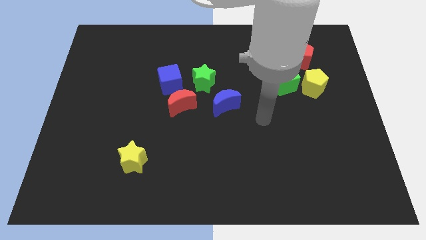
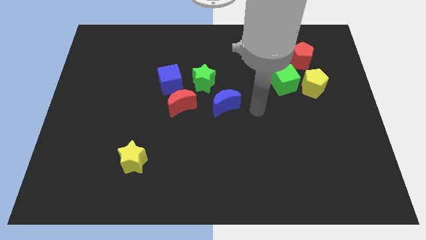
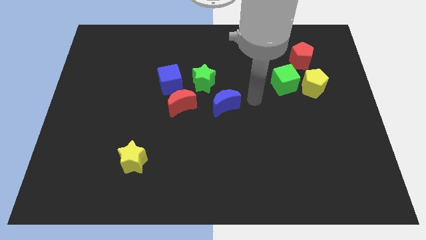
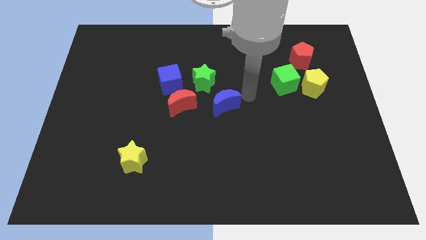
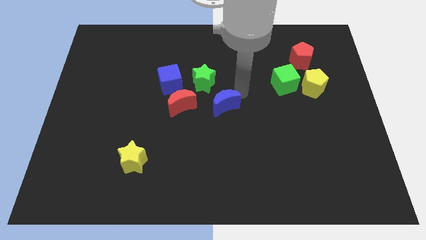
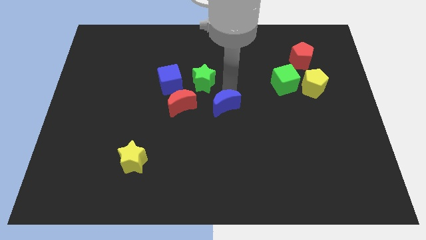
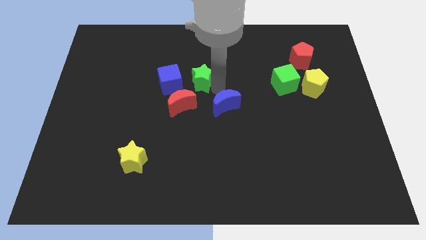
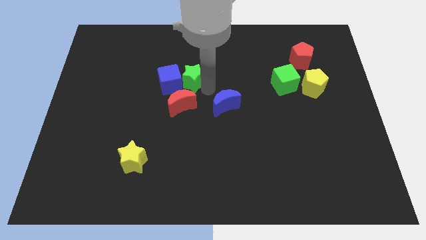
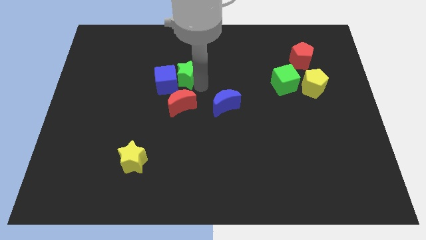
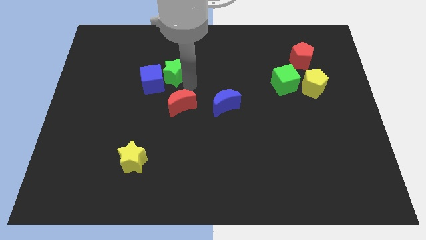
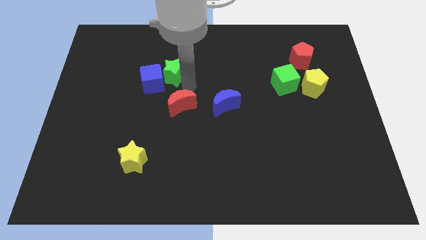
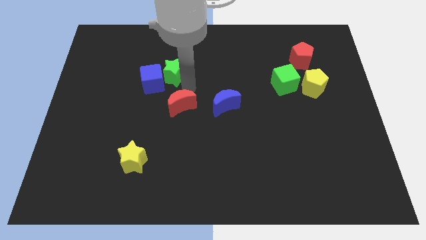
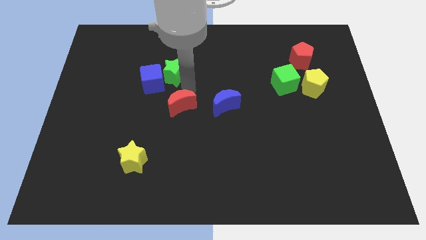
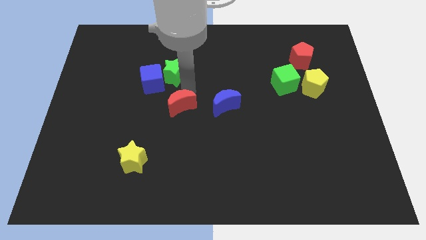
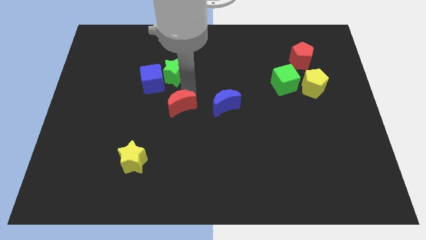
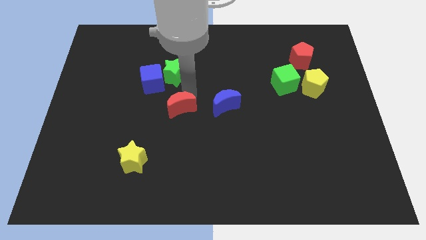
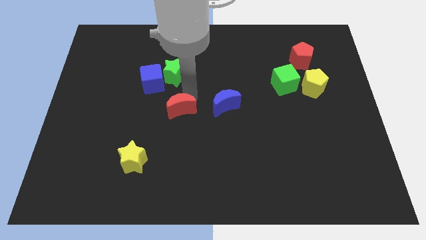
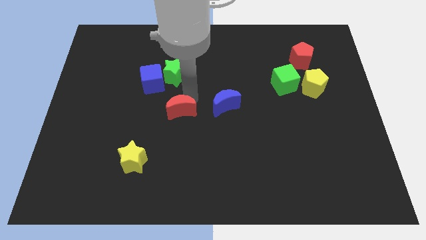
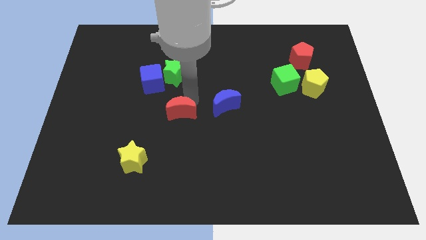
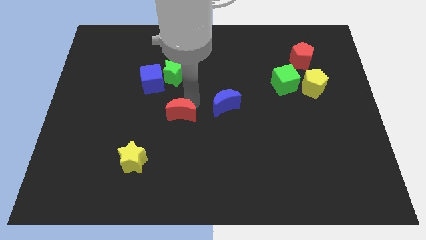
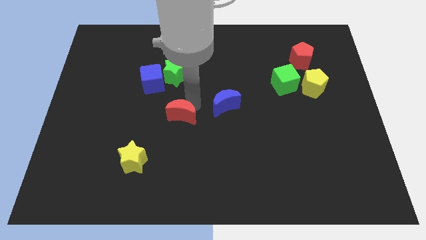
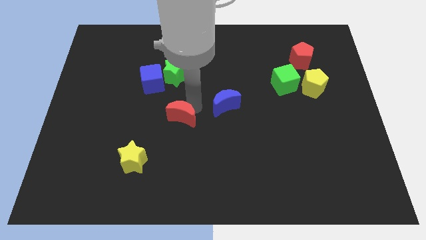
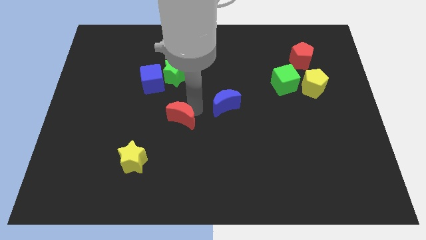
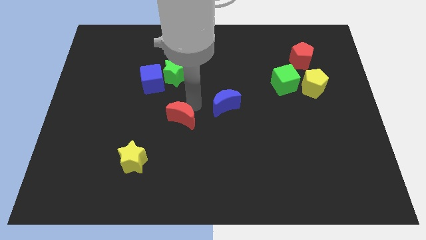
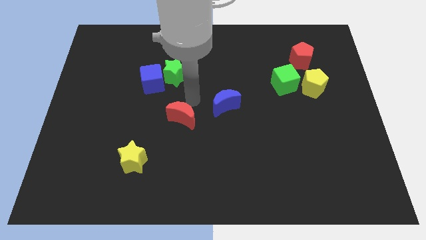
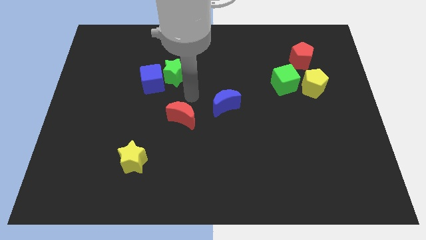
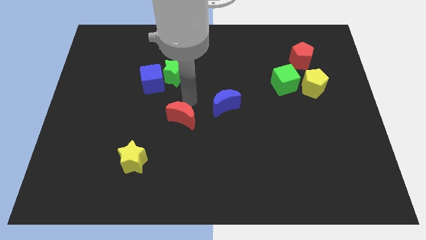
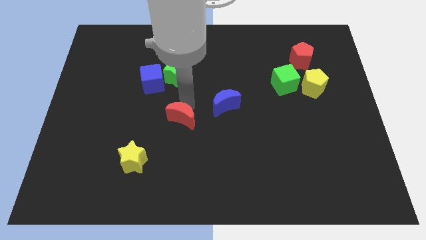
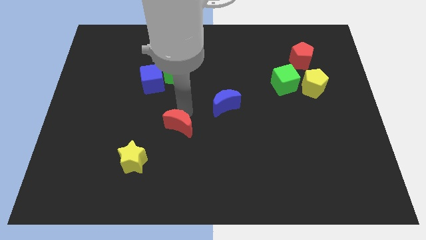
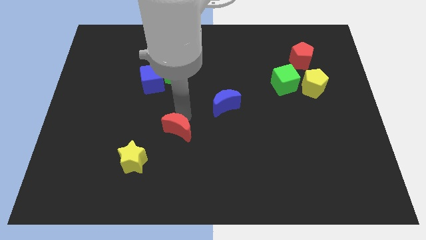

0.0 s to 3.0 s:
push the red moon a little bit downwards

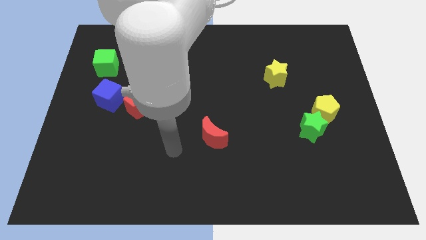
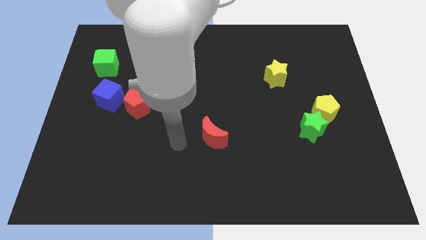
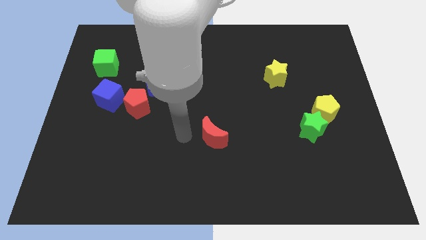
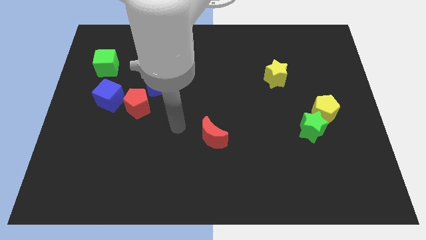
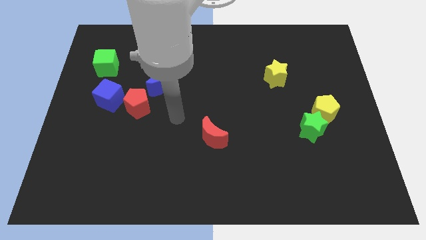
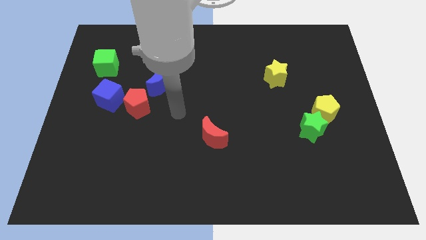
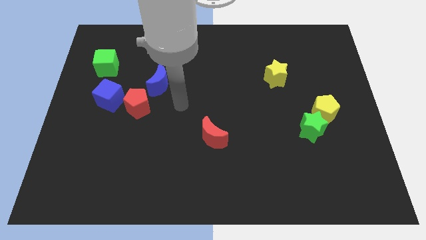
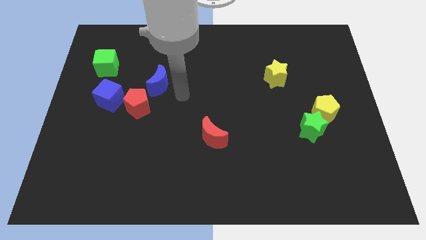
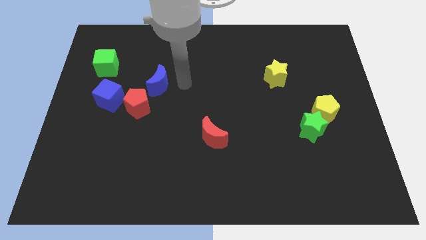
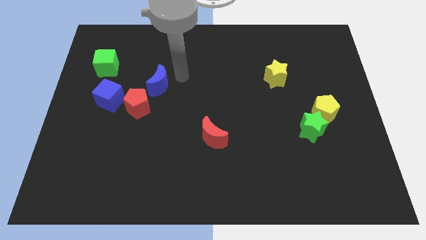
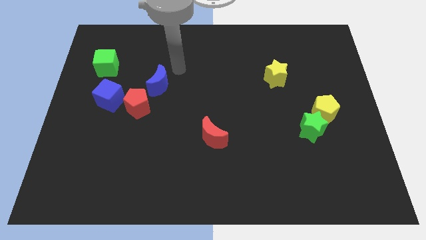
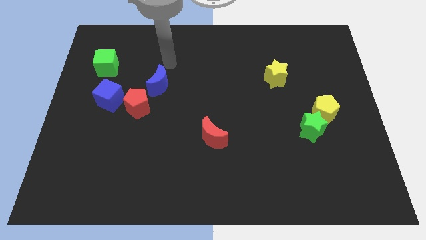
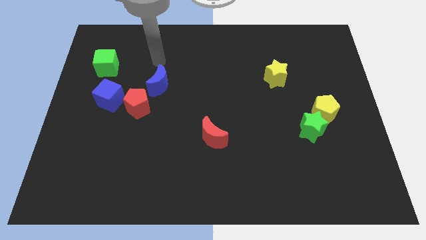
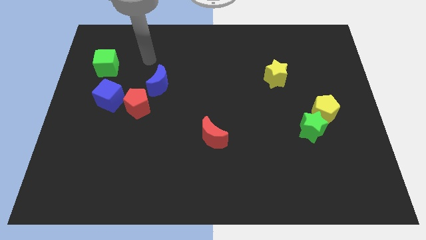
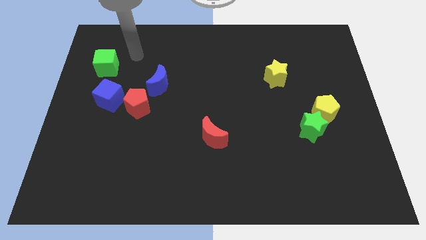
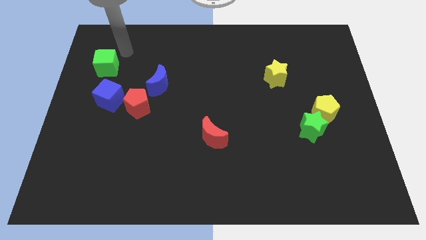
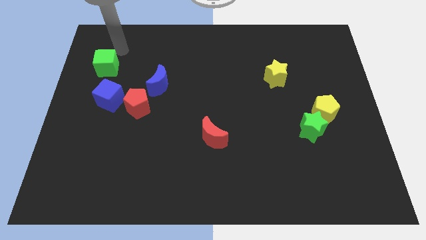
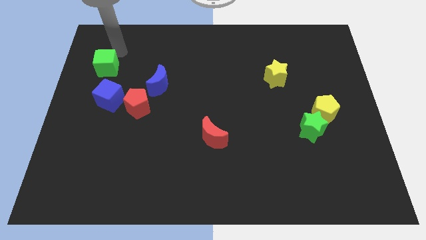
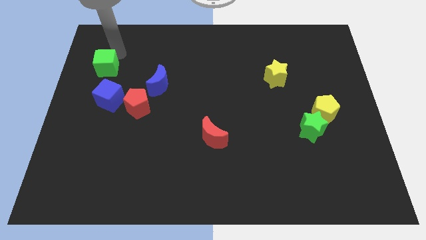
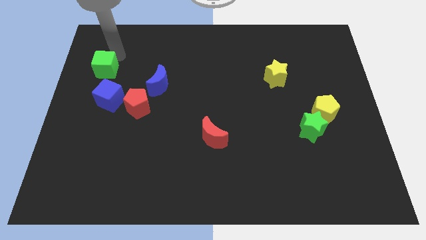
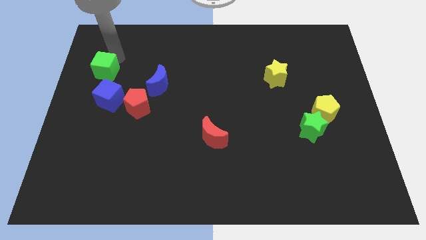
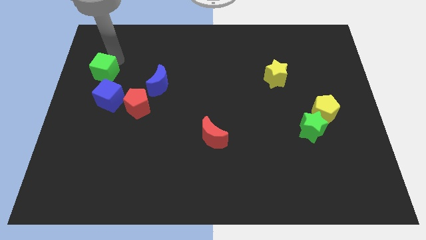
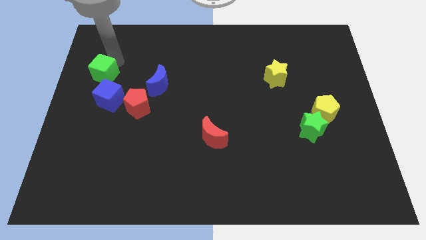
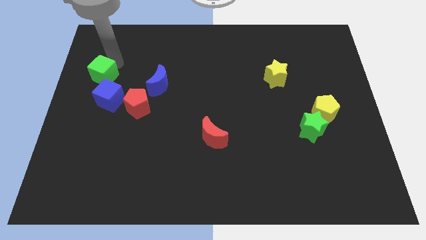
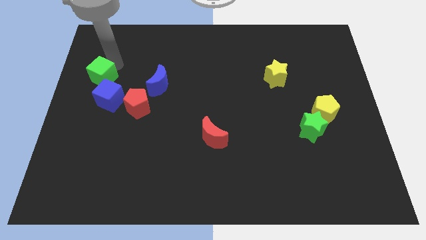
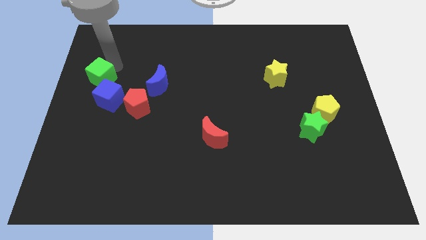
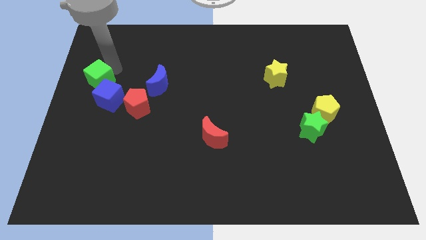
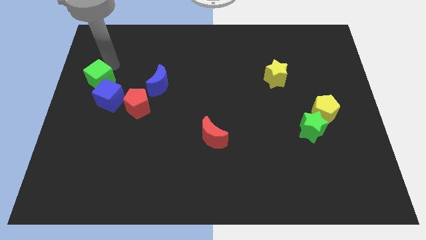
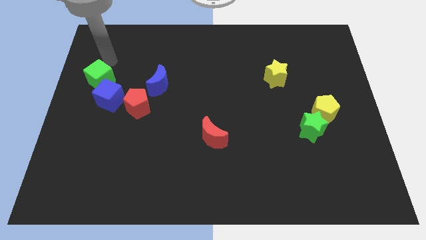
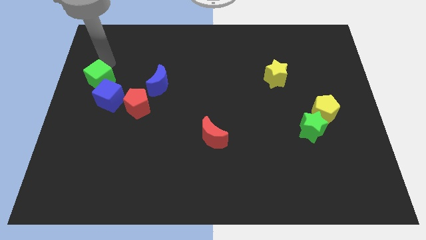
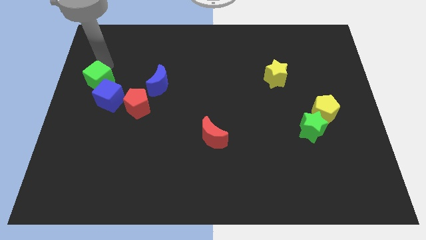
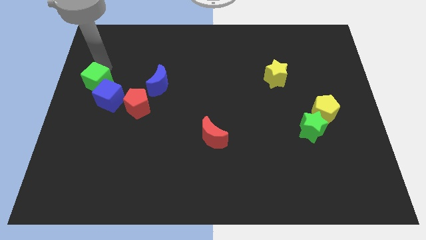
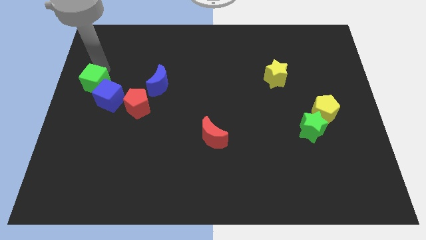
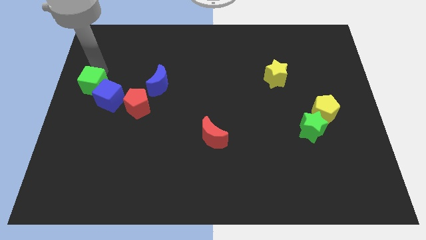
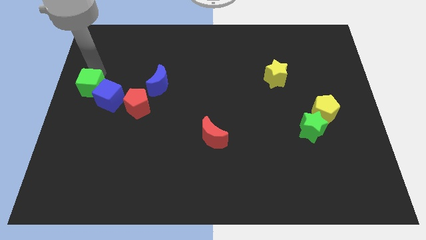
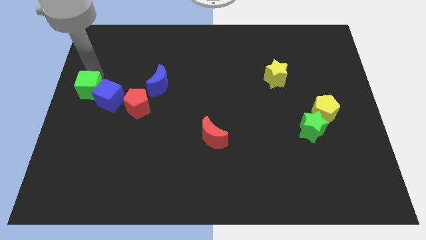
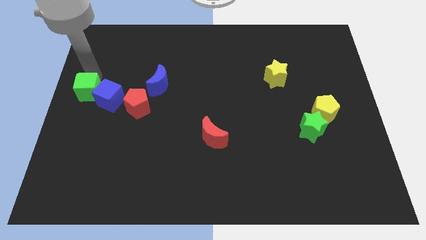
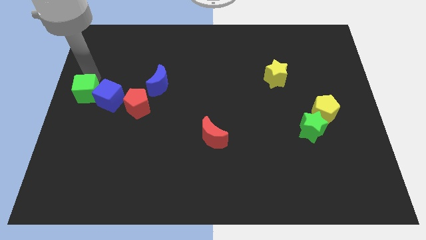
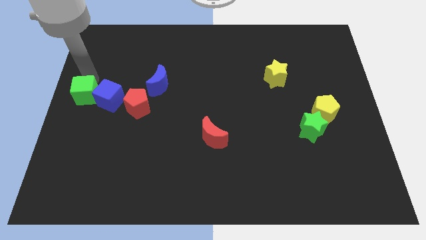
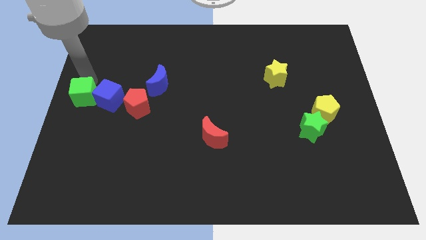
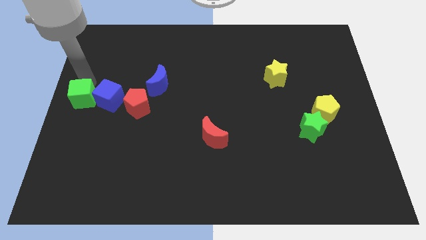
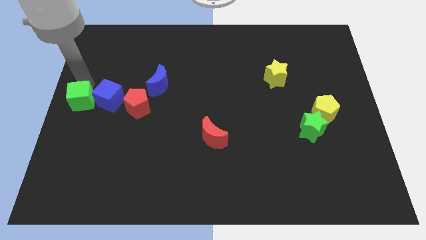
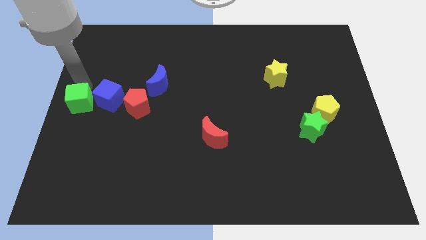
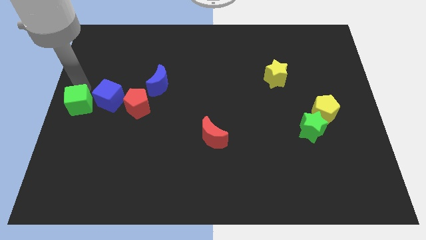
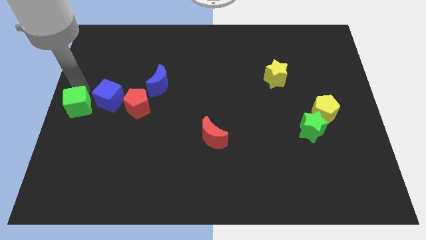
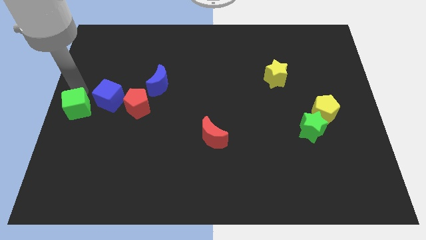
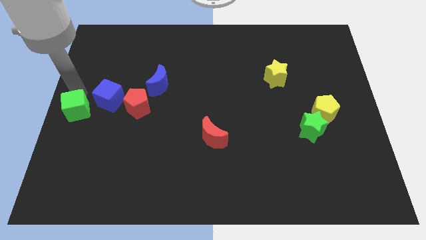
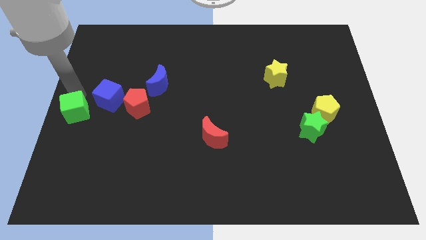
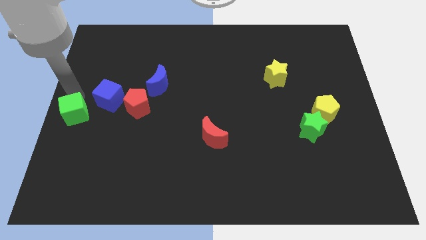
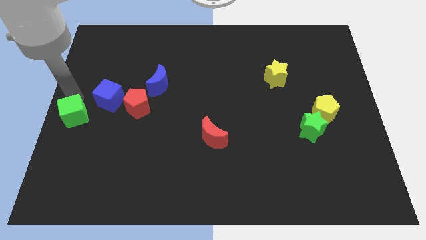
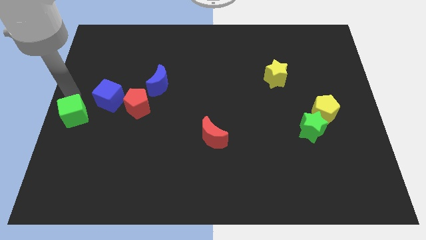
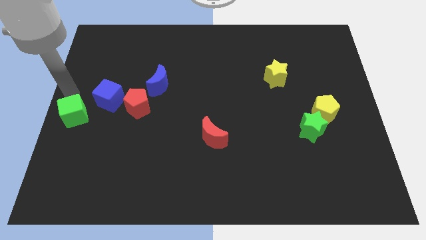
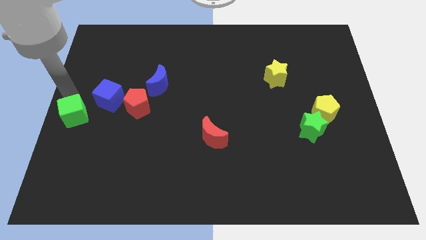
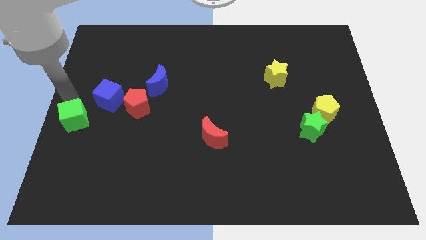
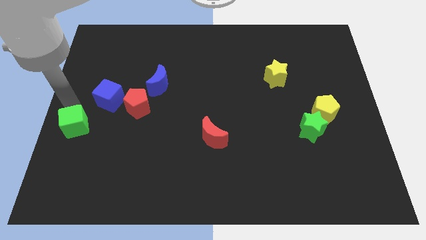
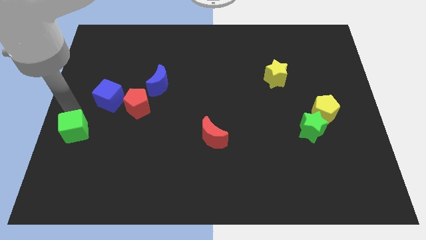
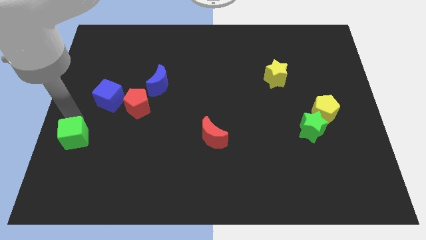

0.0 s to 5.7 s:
move the green cube downwards
